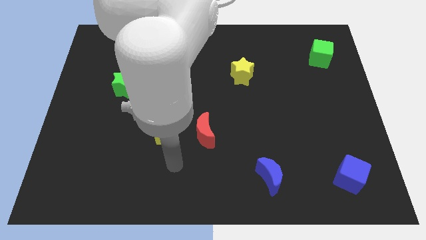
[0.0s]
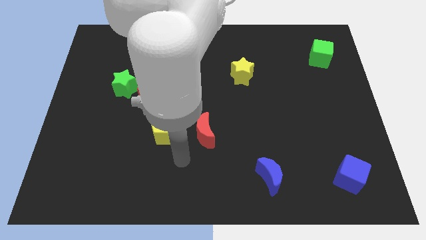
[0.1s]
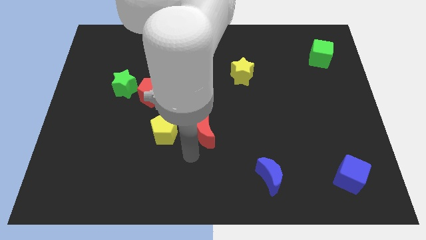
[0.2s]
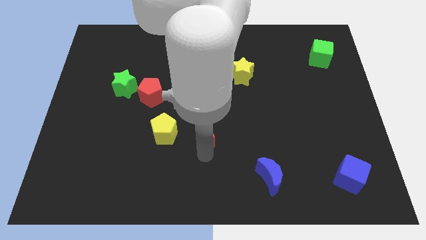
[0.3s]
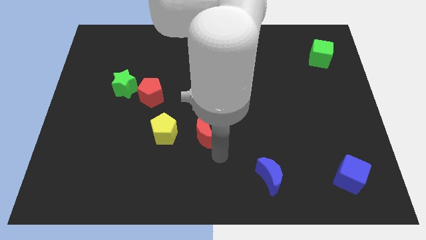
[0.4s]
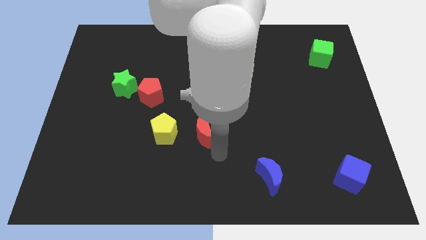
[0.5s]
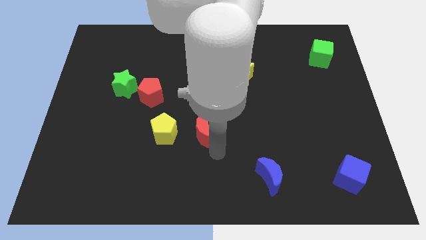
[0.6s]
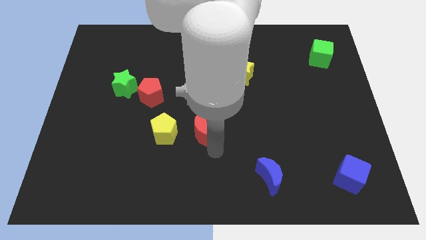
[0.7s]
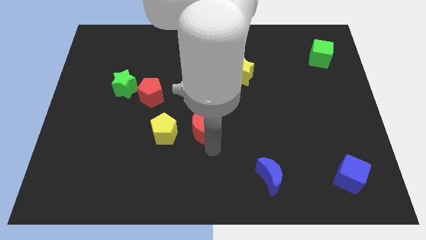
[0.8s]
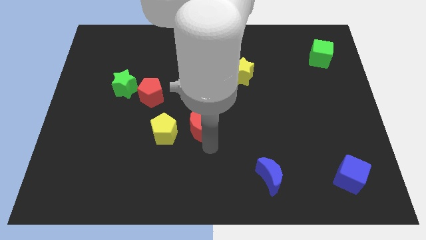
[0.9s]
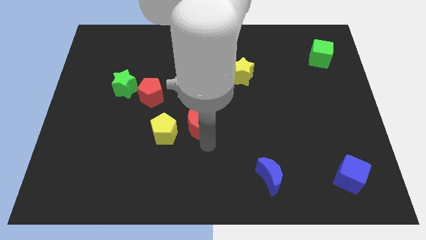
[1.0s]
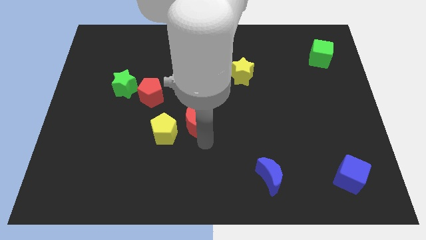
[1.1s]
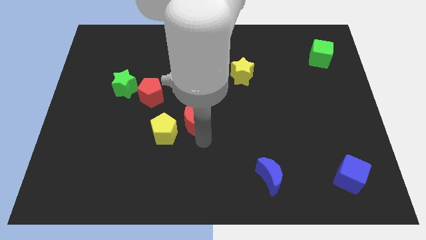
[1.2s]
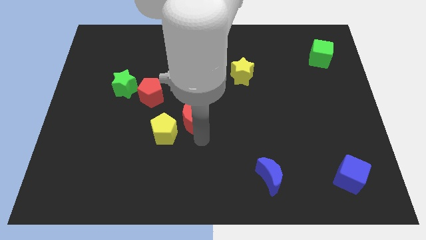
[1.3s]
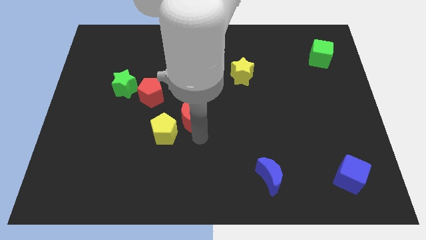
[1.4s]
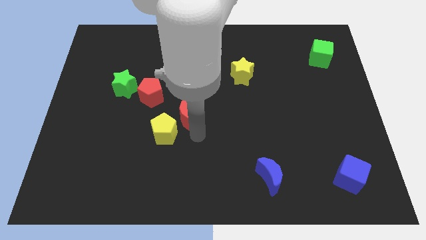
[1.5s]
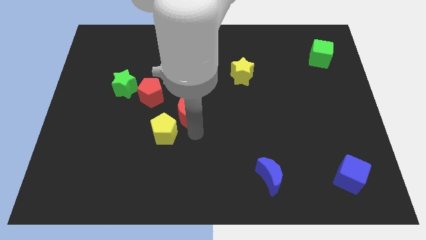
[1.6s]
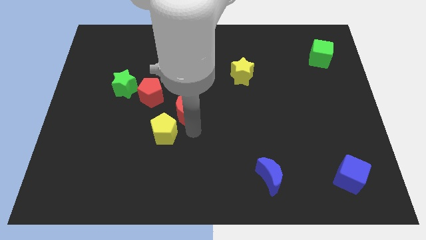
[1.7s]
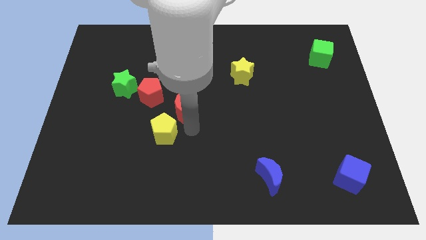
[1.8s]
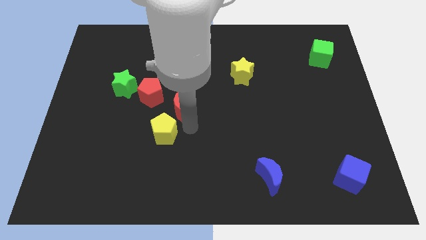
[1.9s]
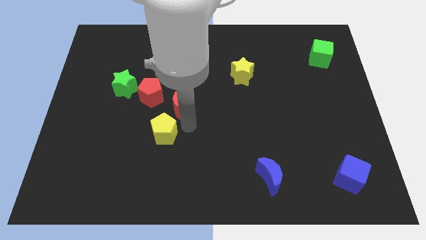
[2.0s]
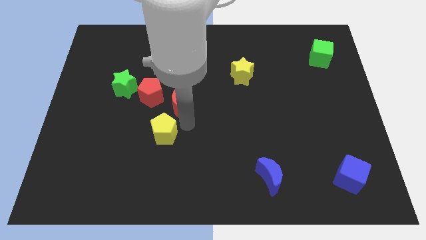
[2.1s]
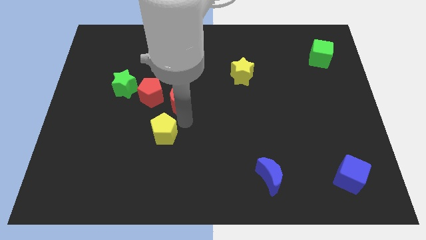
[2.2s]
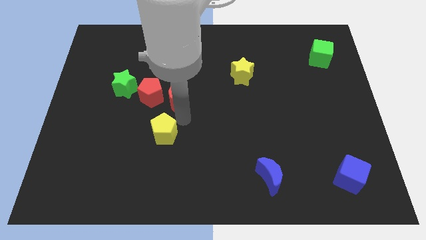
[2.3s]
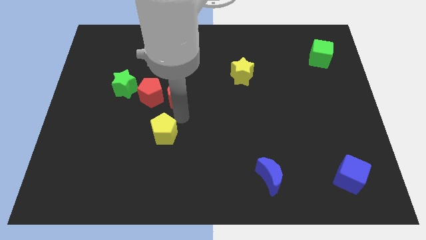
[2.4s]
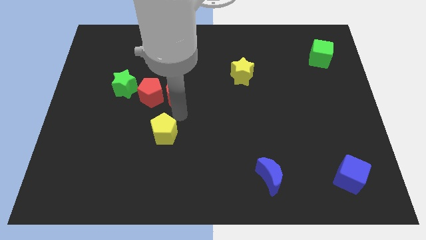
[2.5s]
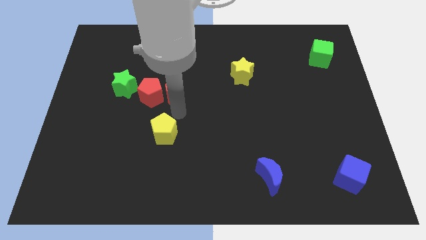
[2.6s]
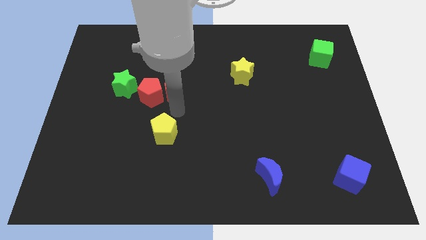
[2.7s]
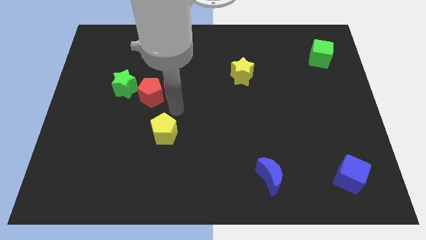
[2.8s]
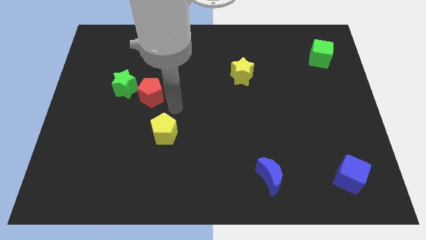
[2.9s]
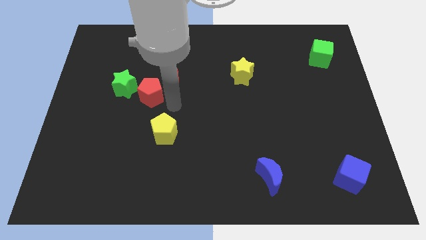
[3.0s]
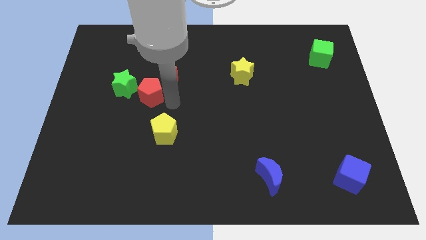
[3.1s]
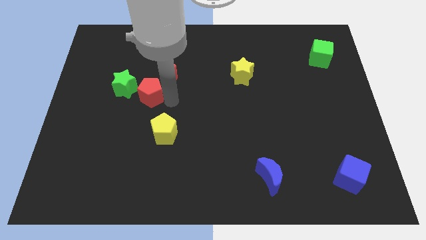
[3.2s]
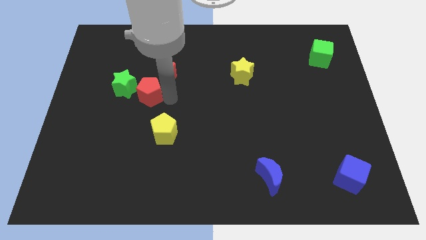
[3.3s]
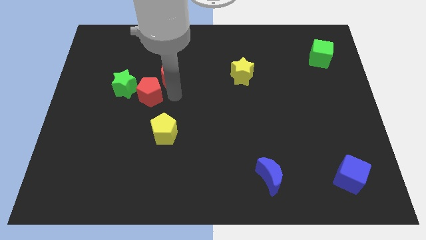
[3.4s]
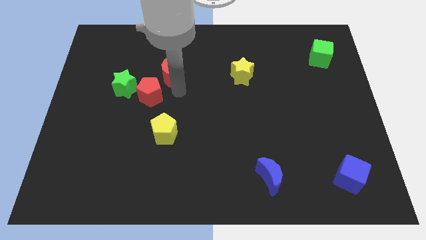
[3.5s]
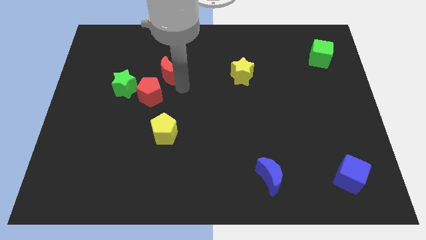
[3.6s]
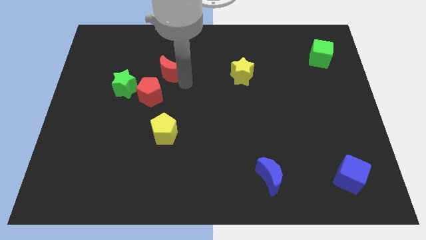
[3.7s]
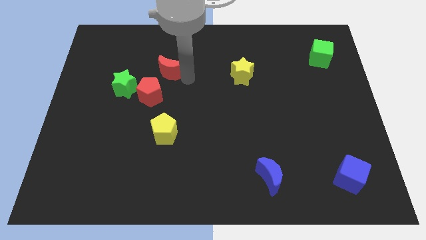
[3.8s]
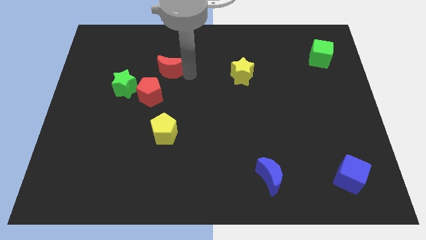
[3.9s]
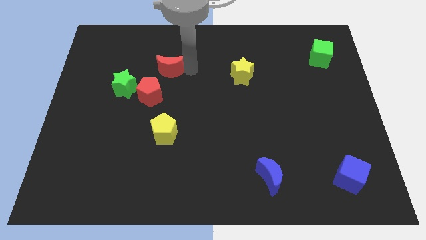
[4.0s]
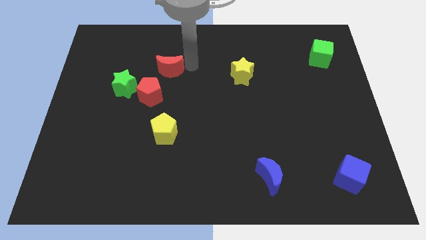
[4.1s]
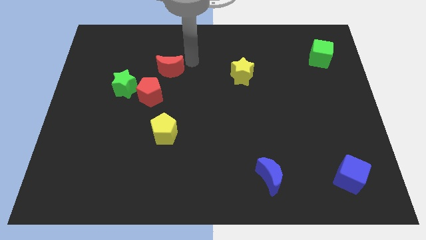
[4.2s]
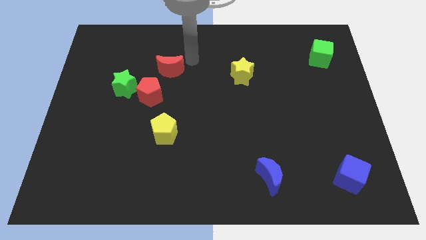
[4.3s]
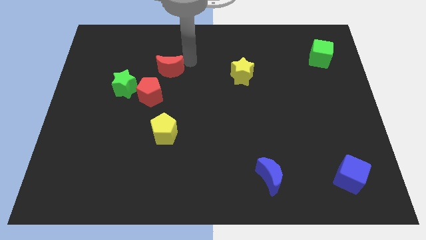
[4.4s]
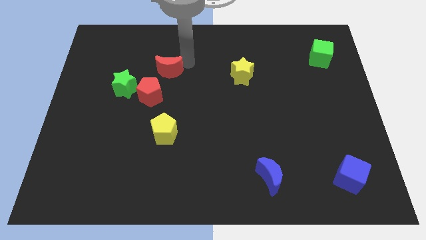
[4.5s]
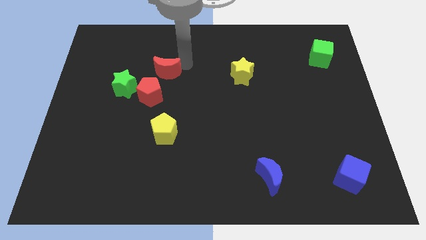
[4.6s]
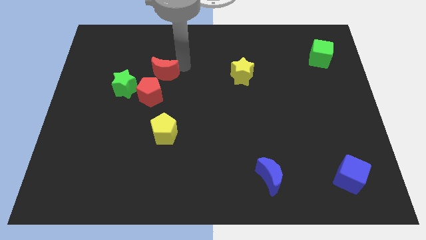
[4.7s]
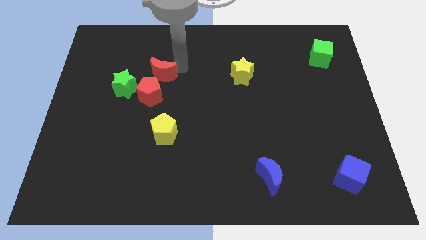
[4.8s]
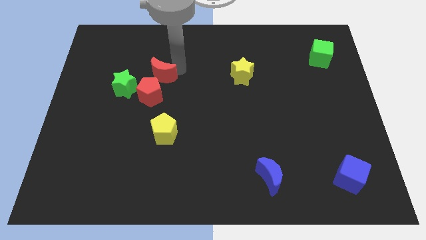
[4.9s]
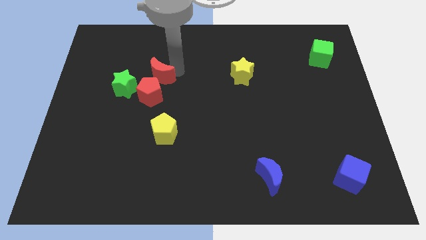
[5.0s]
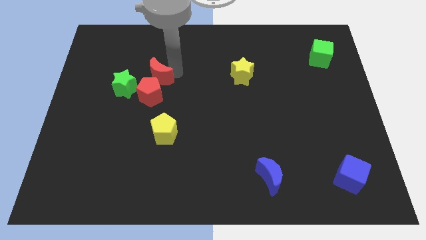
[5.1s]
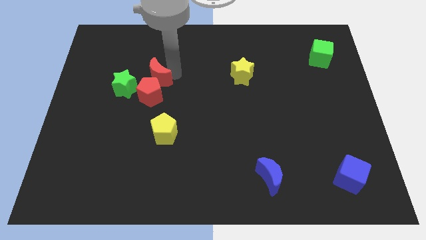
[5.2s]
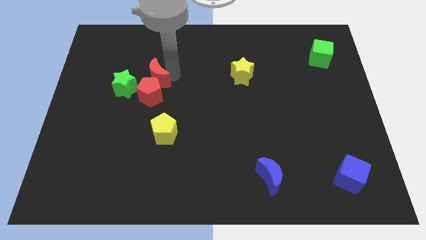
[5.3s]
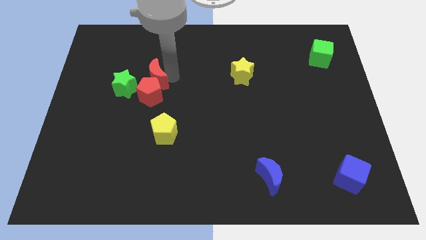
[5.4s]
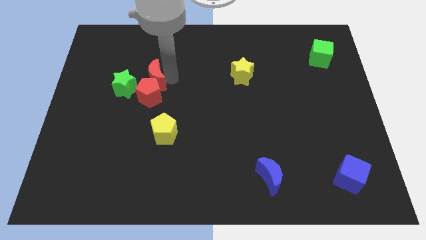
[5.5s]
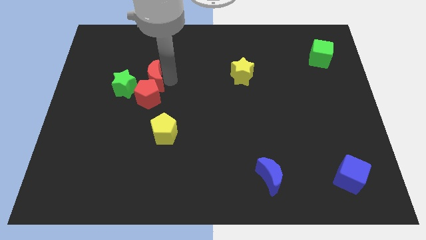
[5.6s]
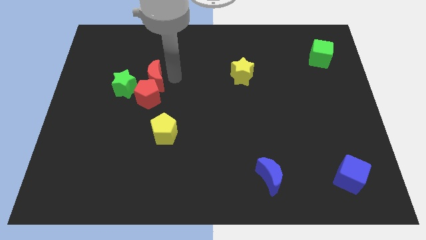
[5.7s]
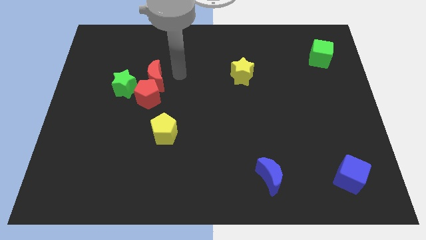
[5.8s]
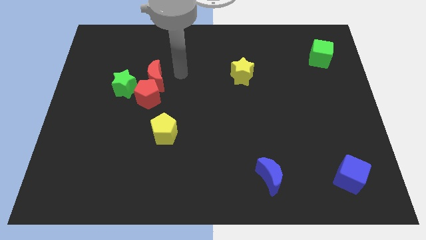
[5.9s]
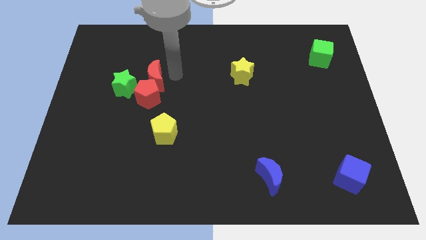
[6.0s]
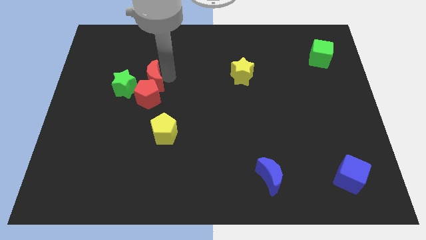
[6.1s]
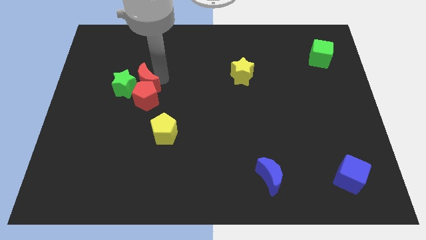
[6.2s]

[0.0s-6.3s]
slide the red moon close to the green star

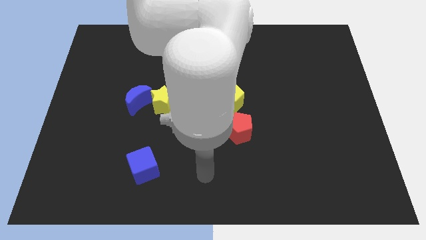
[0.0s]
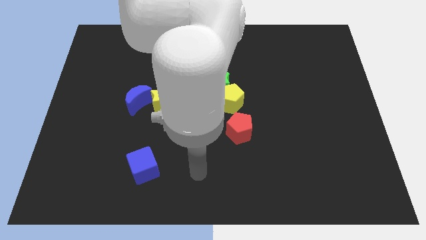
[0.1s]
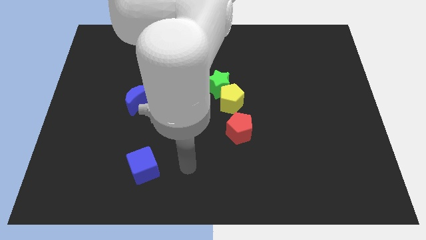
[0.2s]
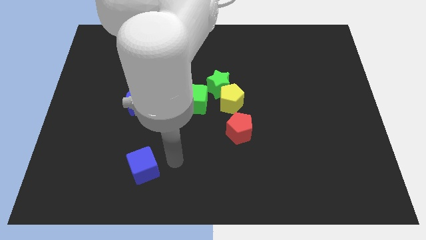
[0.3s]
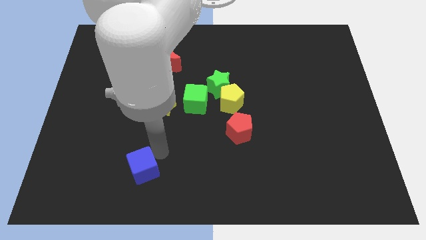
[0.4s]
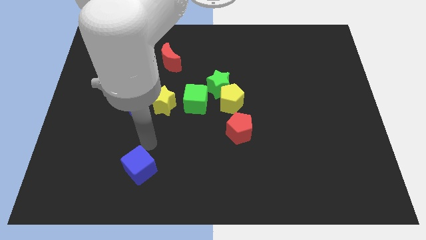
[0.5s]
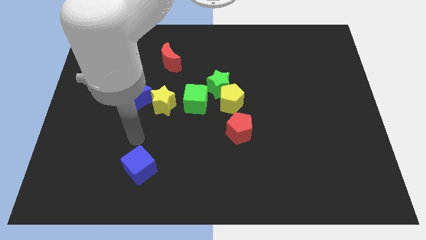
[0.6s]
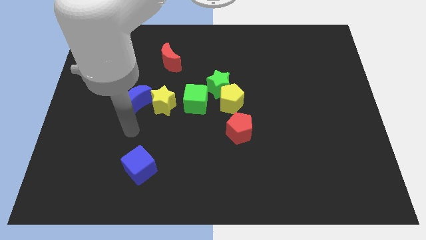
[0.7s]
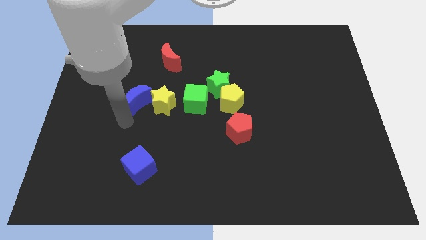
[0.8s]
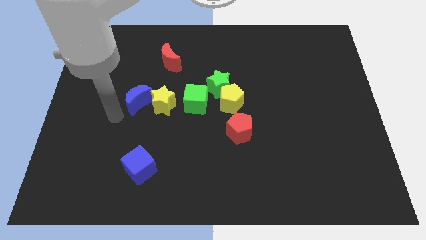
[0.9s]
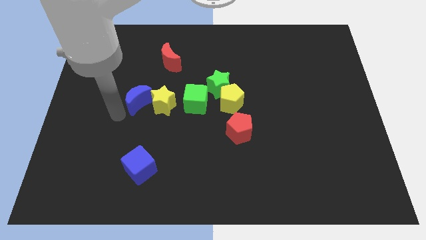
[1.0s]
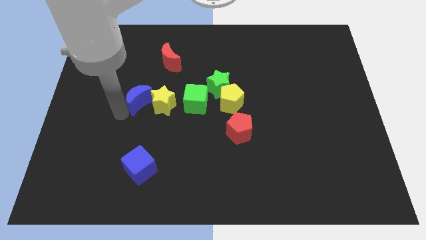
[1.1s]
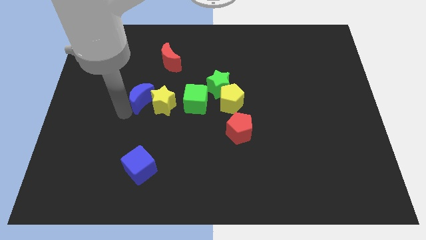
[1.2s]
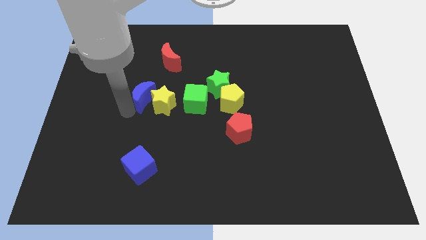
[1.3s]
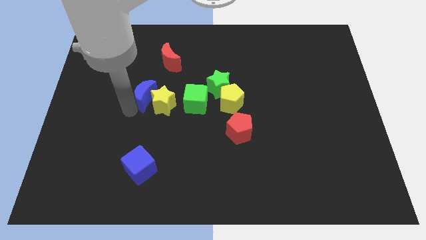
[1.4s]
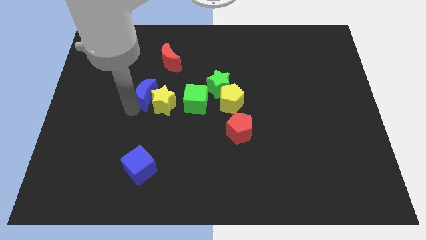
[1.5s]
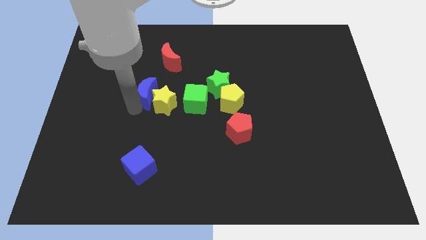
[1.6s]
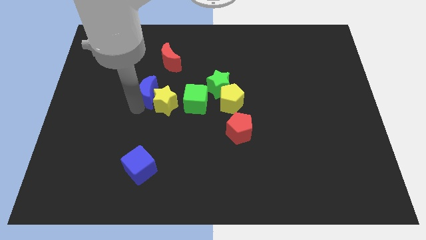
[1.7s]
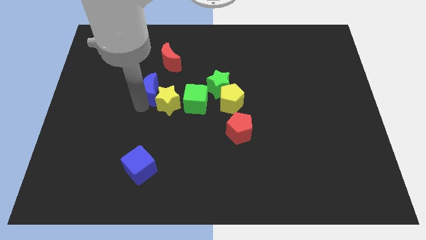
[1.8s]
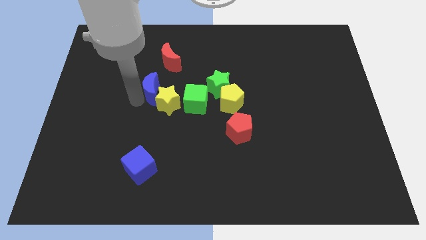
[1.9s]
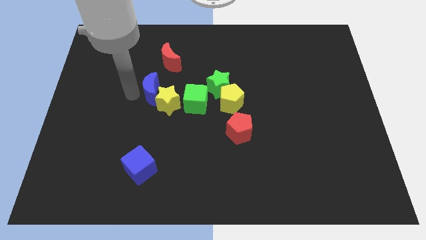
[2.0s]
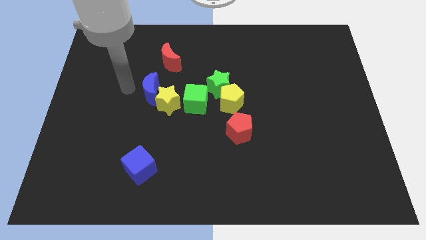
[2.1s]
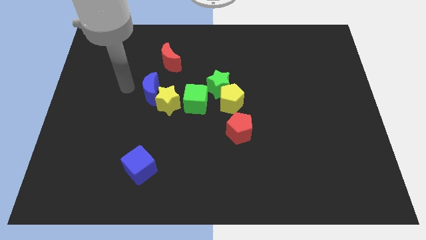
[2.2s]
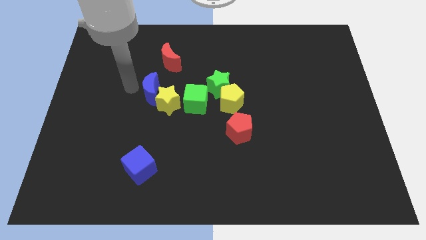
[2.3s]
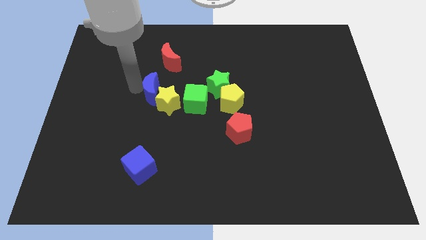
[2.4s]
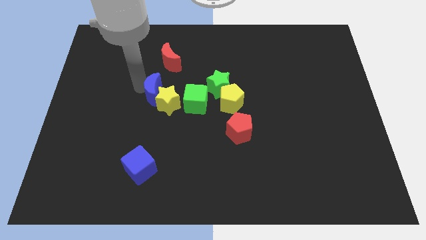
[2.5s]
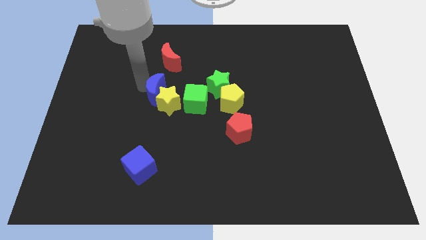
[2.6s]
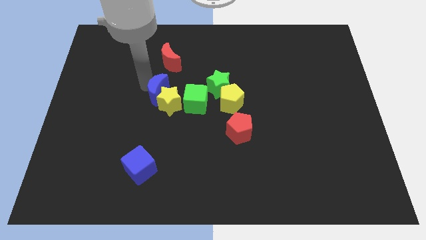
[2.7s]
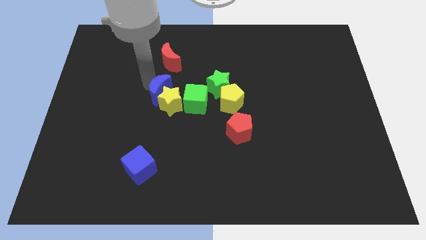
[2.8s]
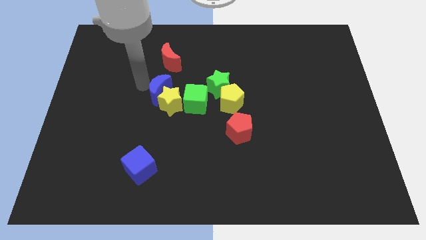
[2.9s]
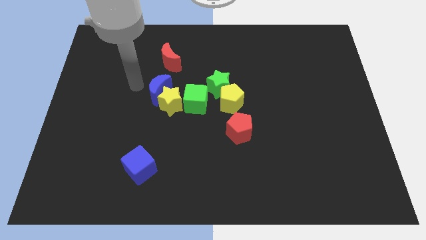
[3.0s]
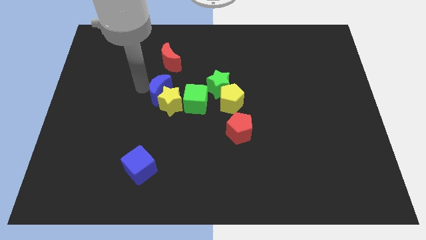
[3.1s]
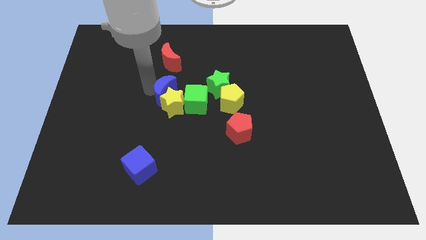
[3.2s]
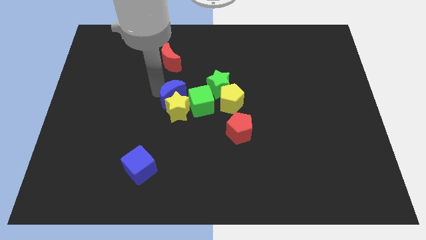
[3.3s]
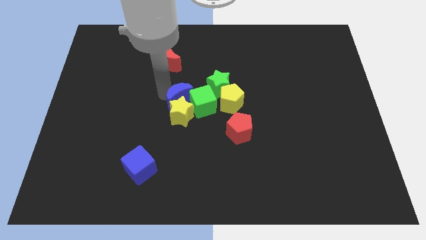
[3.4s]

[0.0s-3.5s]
slide the blue moon next to the green cube
